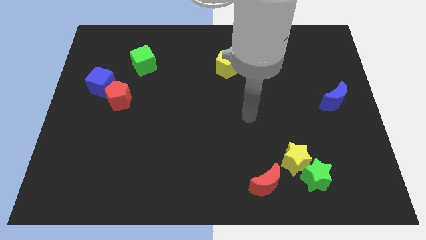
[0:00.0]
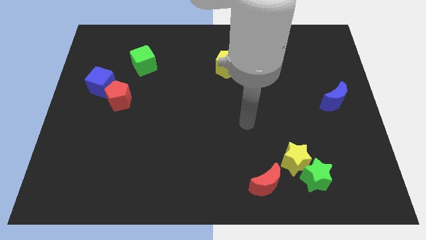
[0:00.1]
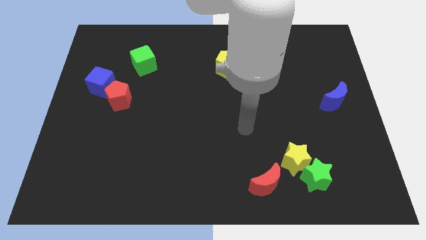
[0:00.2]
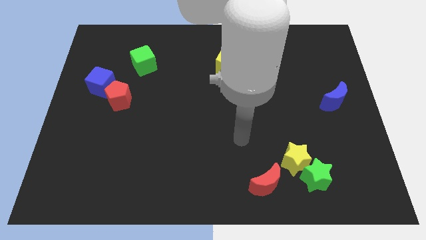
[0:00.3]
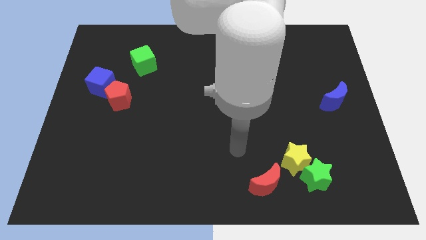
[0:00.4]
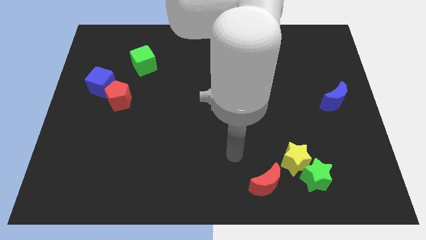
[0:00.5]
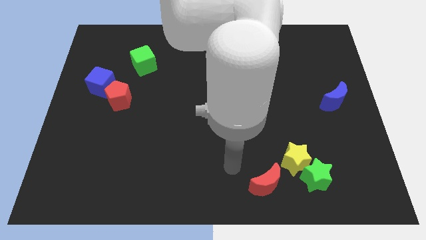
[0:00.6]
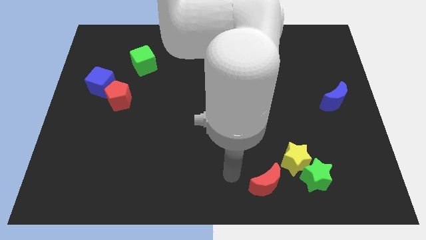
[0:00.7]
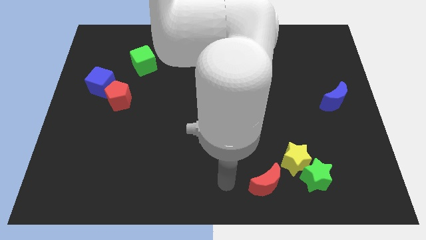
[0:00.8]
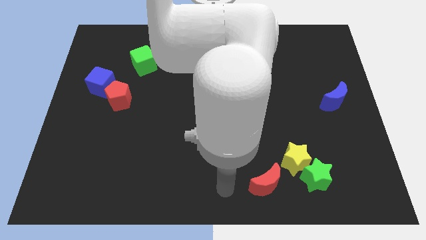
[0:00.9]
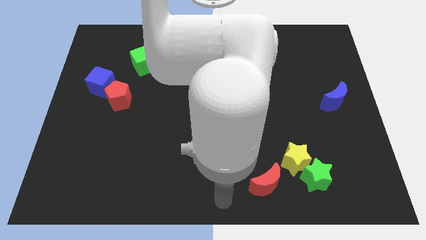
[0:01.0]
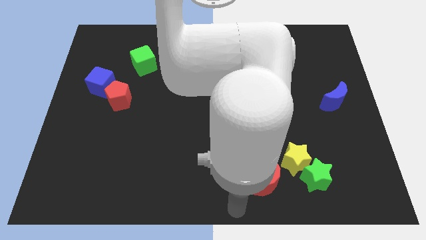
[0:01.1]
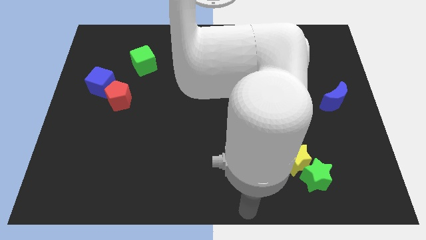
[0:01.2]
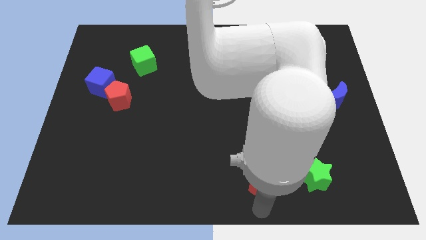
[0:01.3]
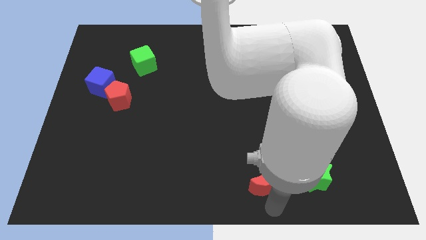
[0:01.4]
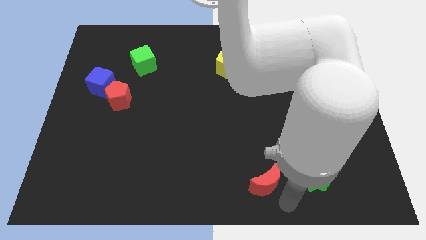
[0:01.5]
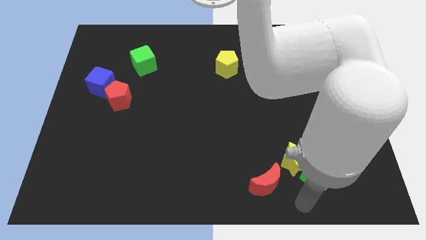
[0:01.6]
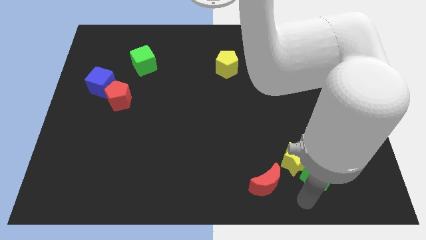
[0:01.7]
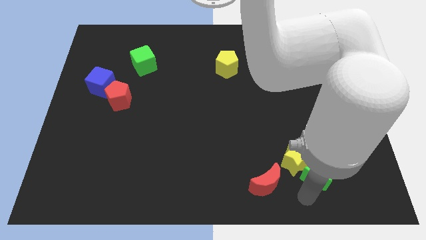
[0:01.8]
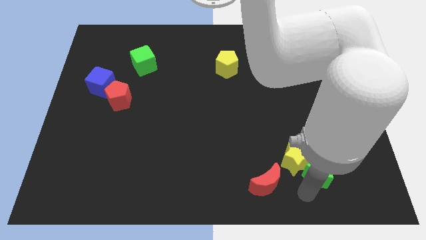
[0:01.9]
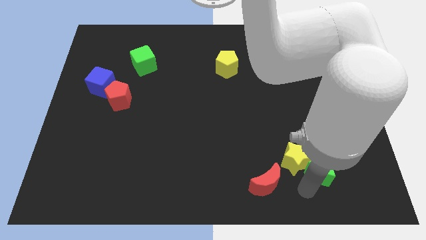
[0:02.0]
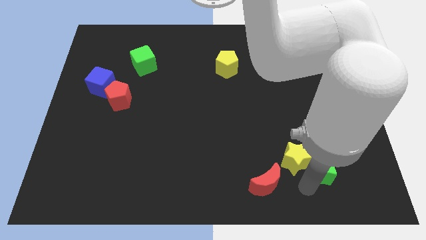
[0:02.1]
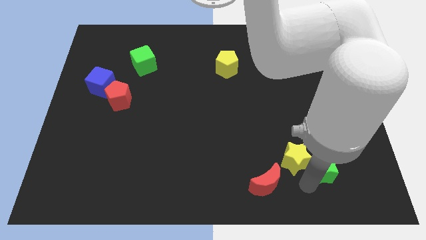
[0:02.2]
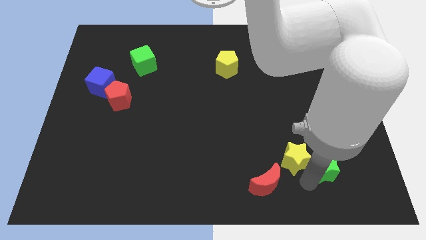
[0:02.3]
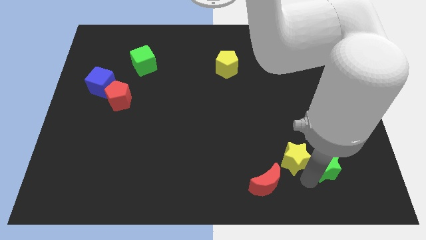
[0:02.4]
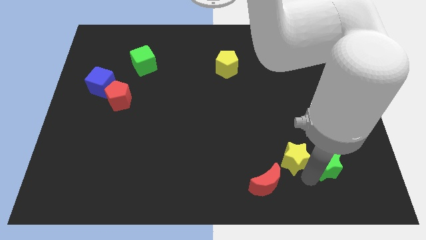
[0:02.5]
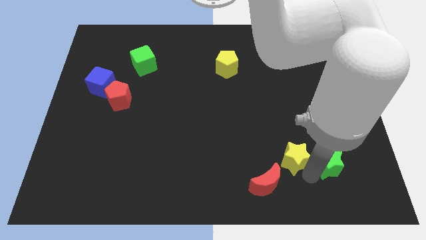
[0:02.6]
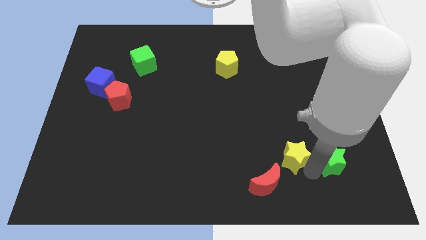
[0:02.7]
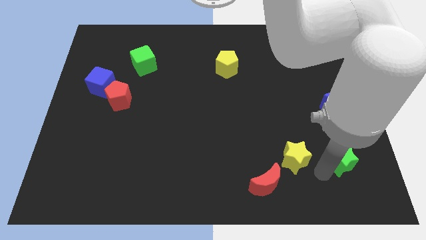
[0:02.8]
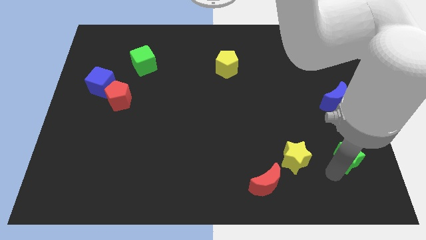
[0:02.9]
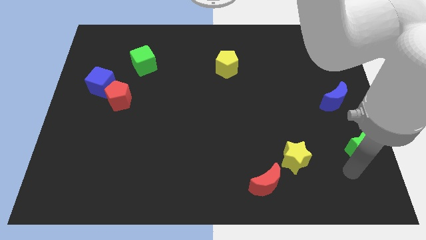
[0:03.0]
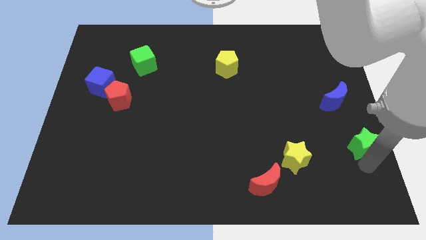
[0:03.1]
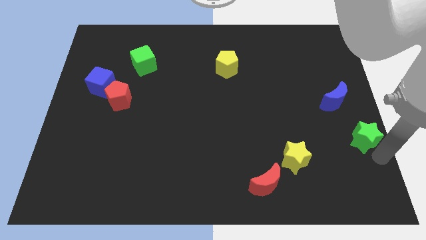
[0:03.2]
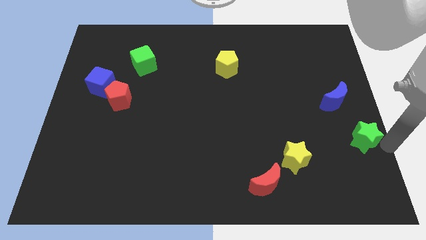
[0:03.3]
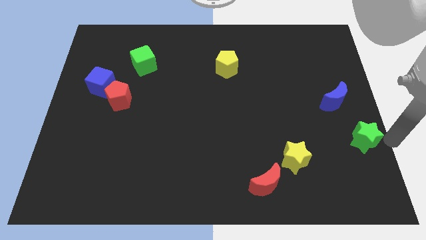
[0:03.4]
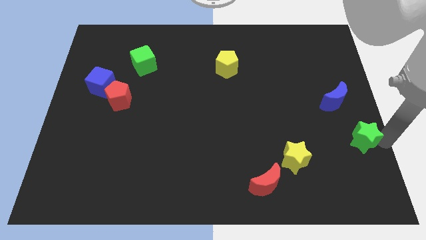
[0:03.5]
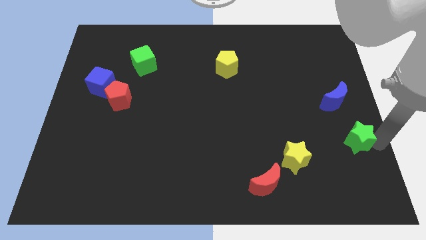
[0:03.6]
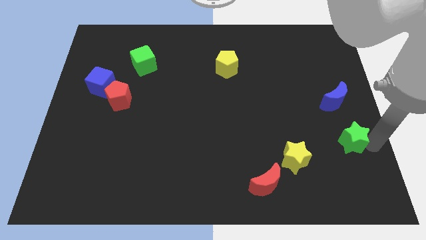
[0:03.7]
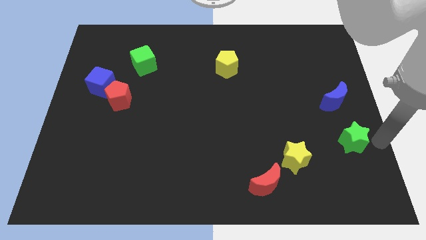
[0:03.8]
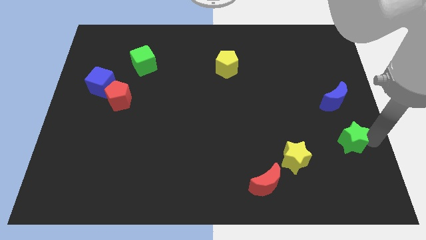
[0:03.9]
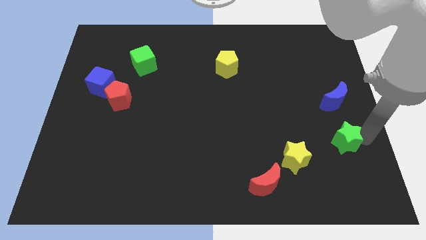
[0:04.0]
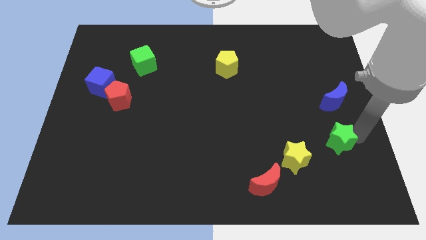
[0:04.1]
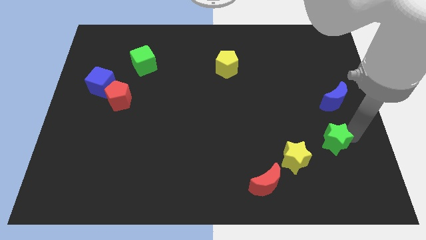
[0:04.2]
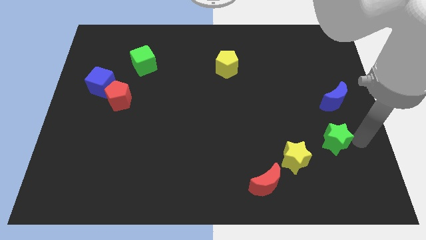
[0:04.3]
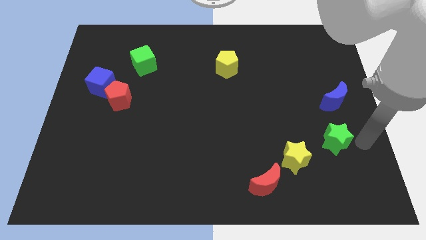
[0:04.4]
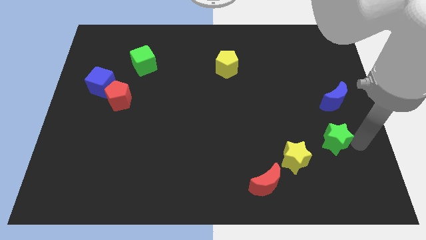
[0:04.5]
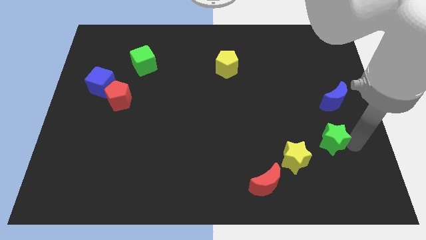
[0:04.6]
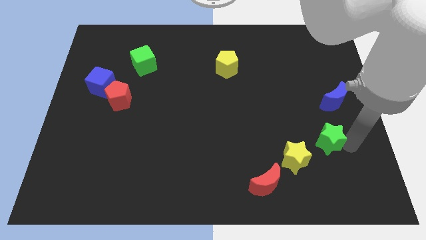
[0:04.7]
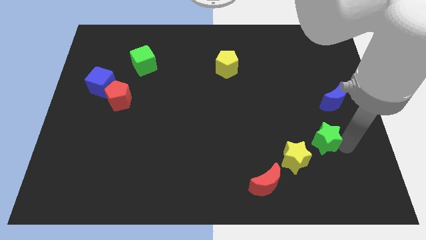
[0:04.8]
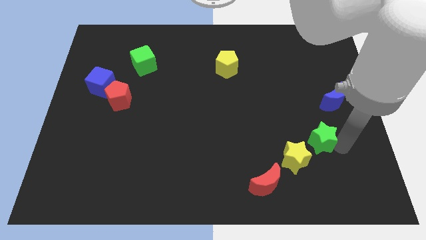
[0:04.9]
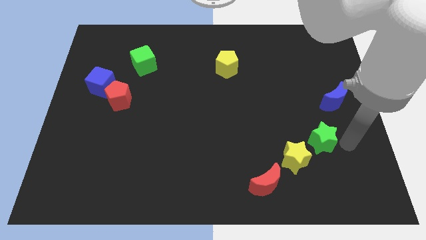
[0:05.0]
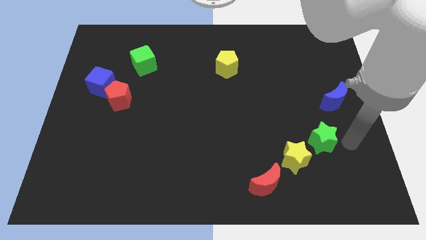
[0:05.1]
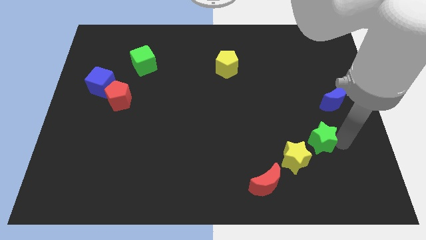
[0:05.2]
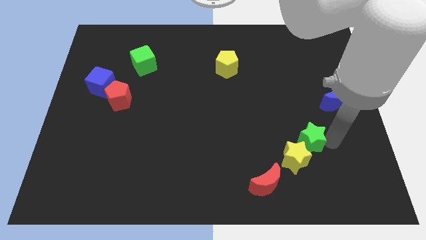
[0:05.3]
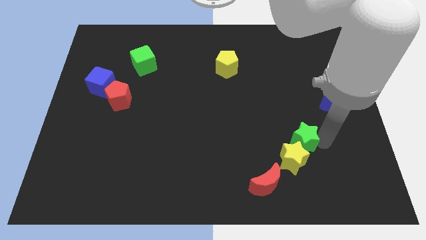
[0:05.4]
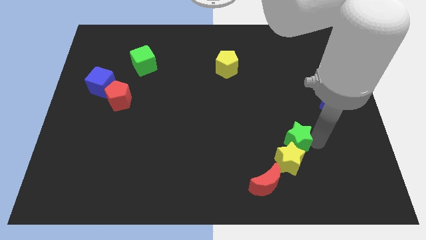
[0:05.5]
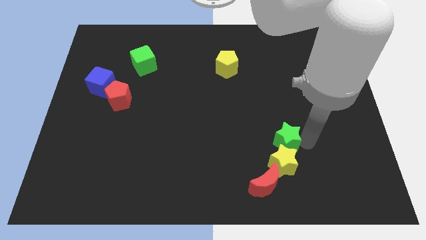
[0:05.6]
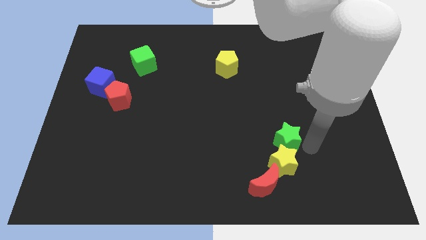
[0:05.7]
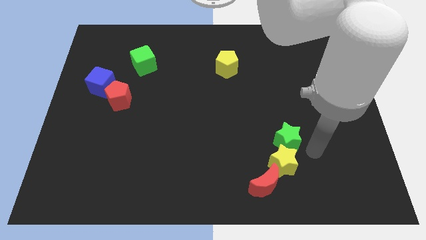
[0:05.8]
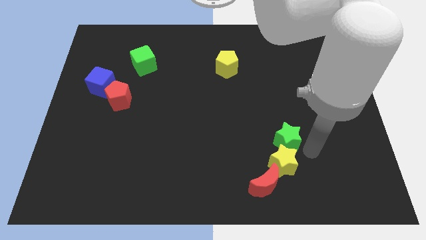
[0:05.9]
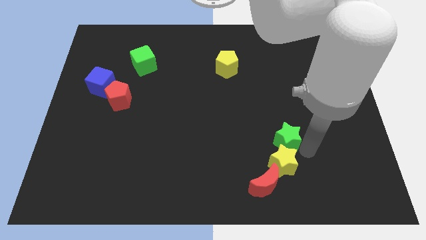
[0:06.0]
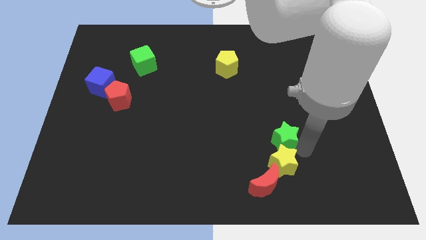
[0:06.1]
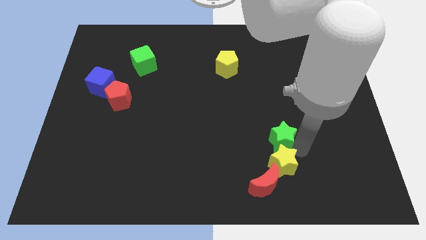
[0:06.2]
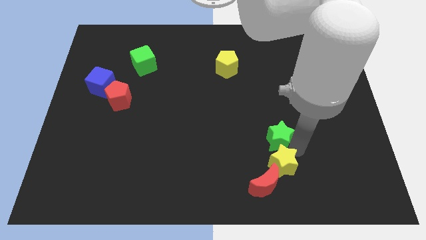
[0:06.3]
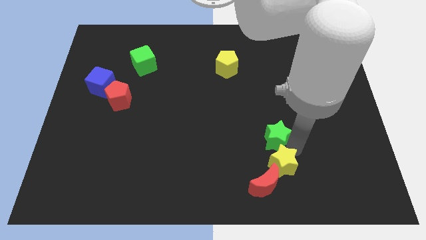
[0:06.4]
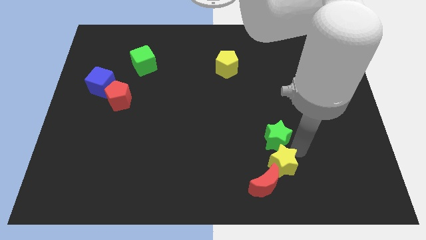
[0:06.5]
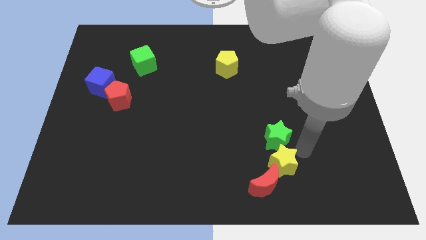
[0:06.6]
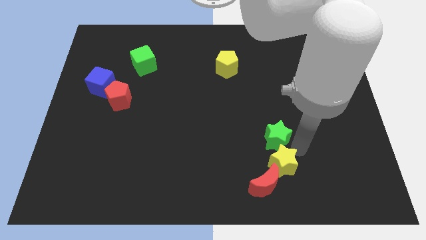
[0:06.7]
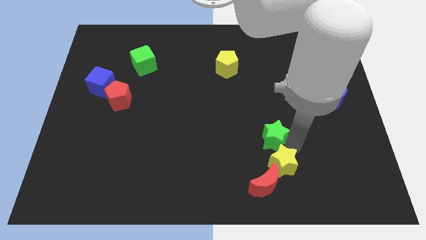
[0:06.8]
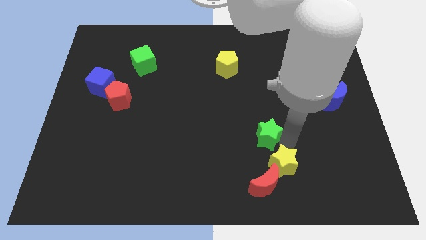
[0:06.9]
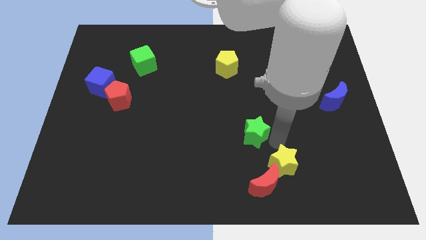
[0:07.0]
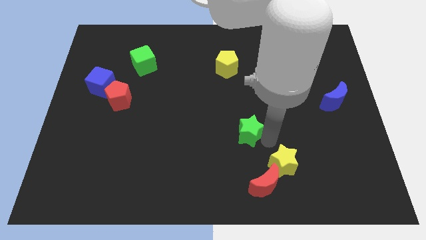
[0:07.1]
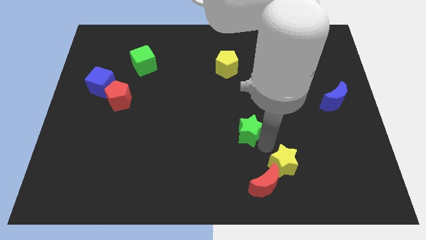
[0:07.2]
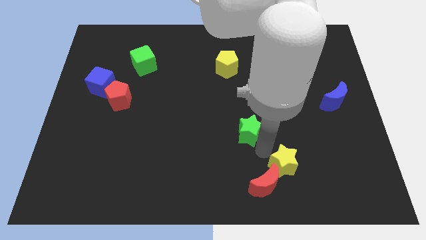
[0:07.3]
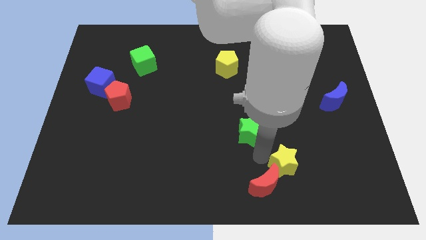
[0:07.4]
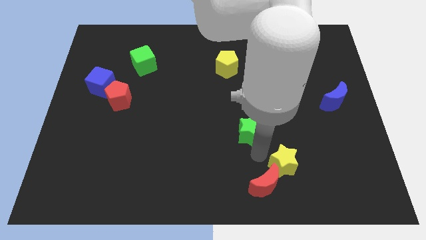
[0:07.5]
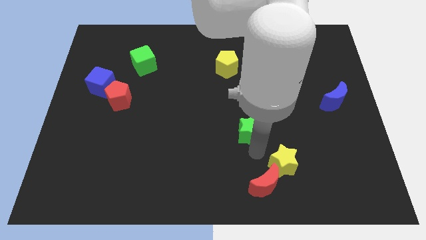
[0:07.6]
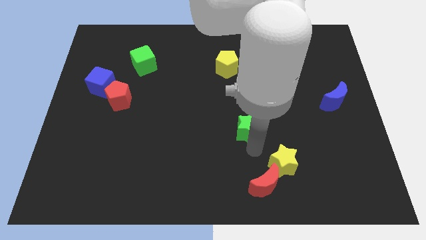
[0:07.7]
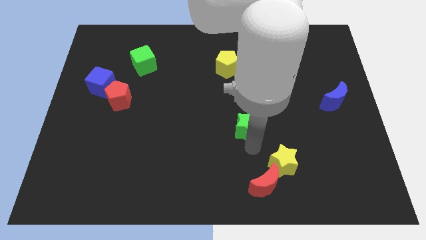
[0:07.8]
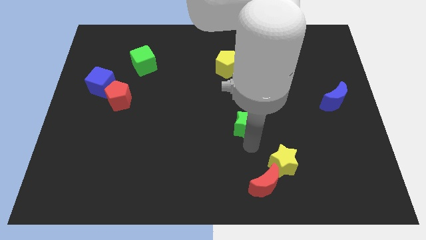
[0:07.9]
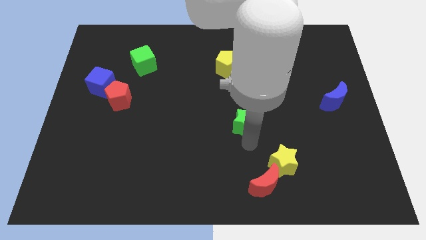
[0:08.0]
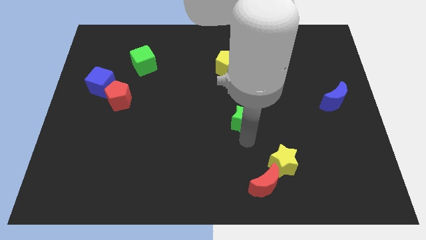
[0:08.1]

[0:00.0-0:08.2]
move the green star up and to the left diagonally
